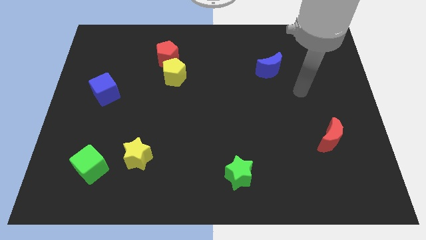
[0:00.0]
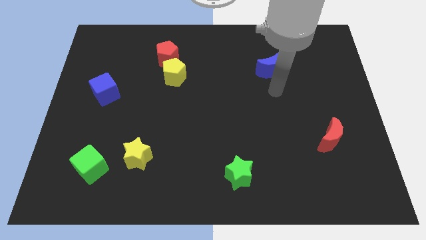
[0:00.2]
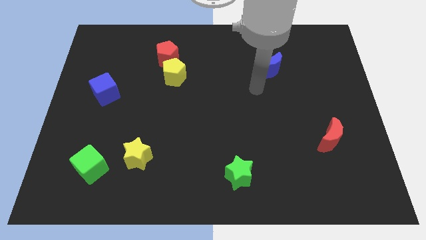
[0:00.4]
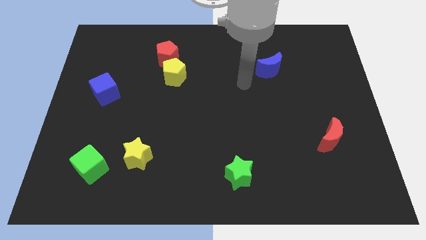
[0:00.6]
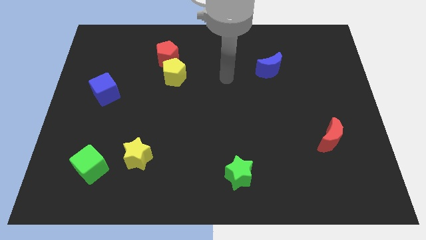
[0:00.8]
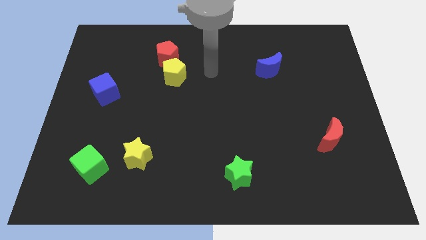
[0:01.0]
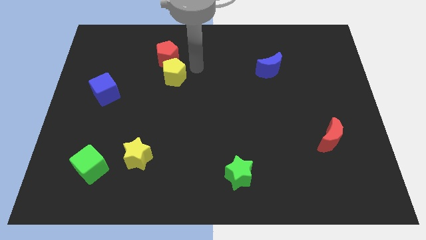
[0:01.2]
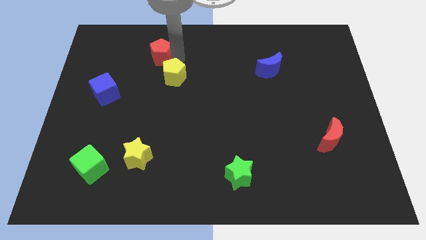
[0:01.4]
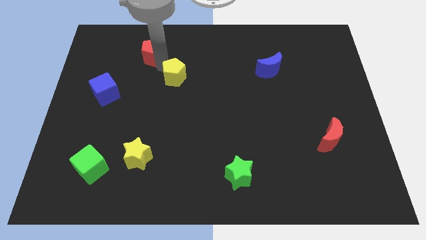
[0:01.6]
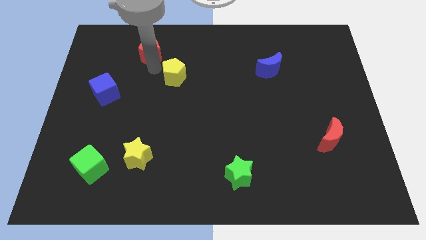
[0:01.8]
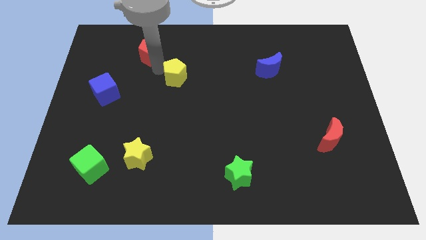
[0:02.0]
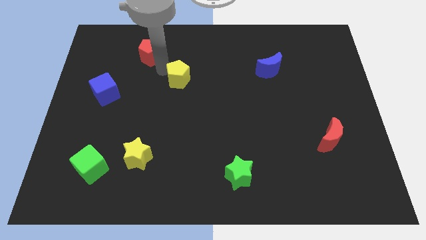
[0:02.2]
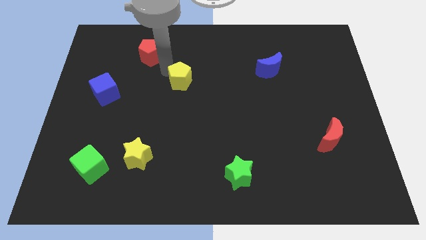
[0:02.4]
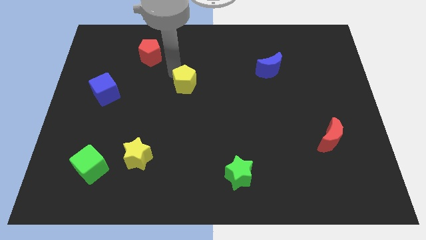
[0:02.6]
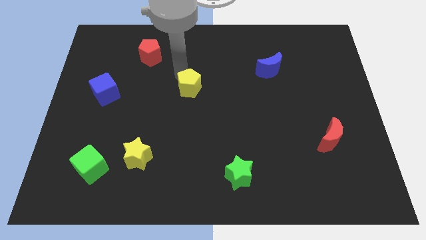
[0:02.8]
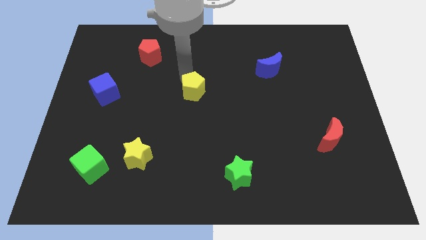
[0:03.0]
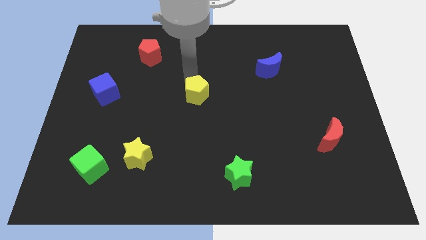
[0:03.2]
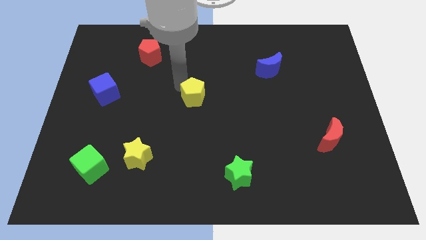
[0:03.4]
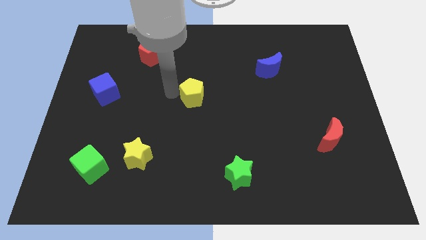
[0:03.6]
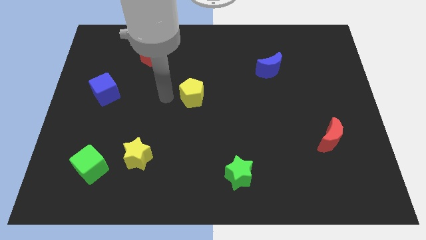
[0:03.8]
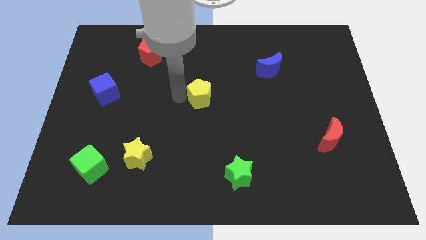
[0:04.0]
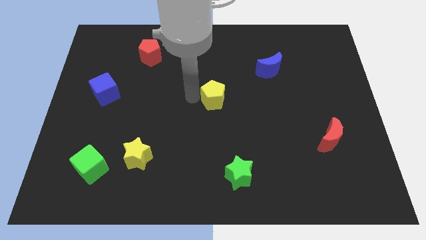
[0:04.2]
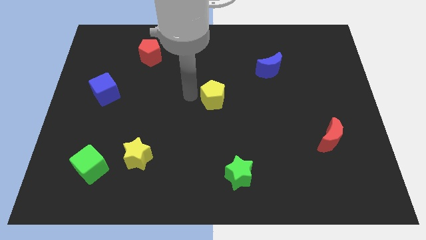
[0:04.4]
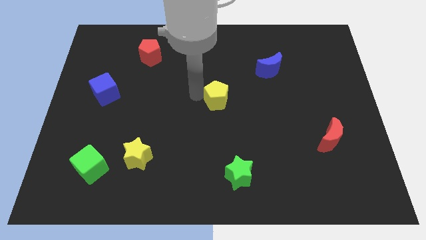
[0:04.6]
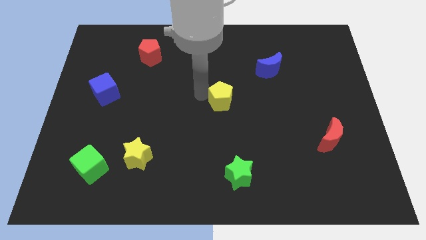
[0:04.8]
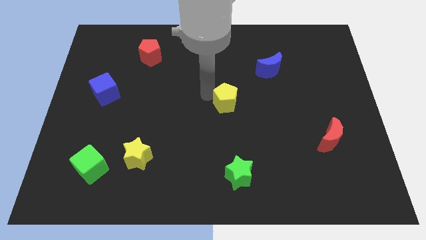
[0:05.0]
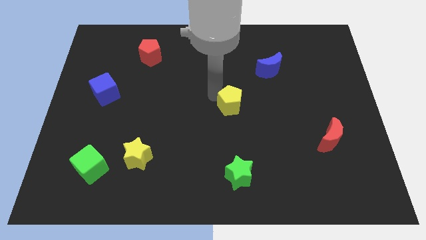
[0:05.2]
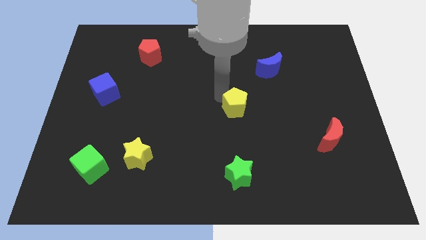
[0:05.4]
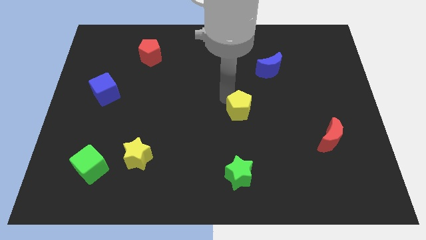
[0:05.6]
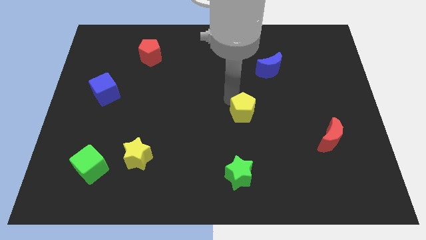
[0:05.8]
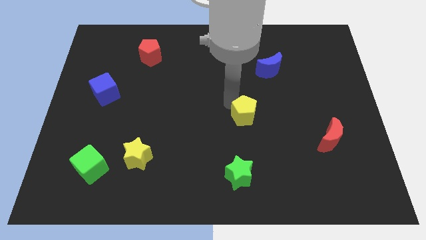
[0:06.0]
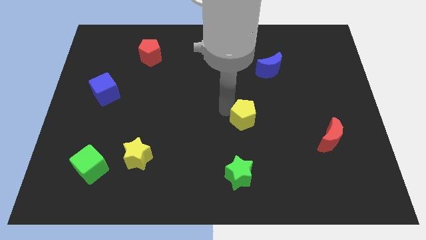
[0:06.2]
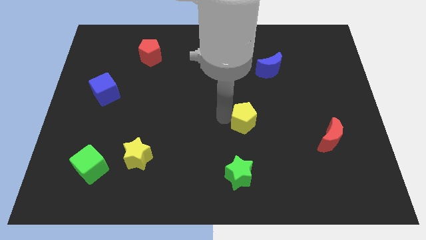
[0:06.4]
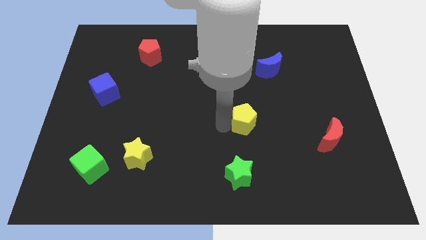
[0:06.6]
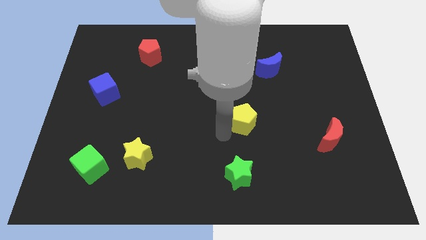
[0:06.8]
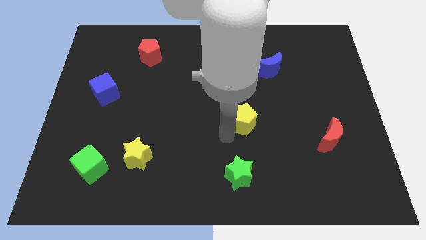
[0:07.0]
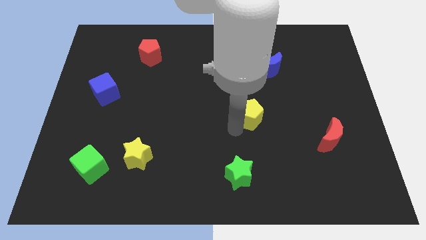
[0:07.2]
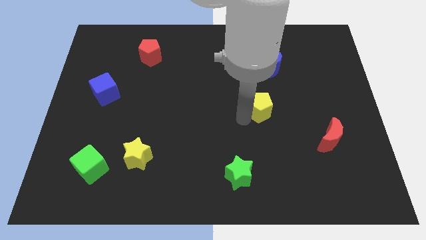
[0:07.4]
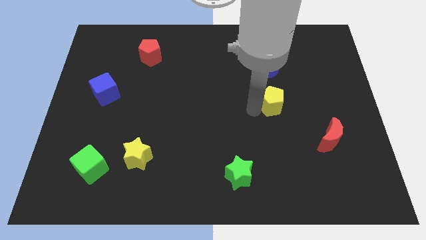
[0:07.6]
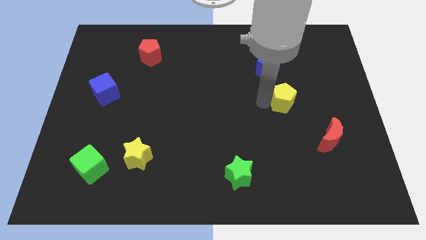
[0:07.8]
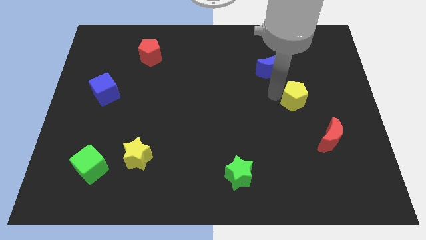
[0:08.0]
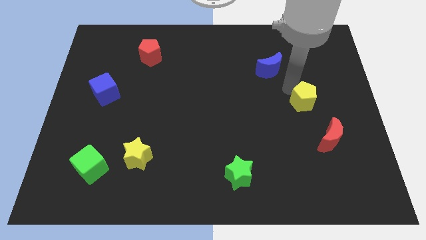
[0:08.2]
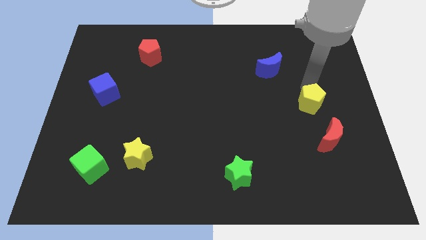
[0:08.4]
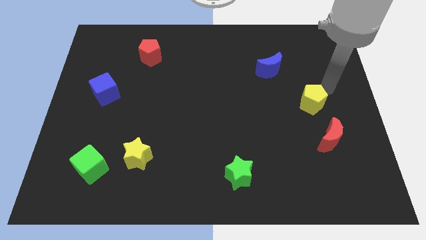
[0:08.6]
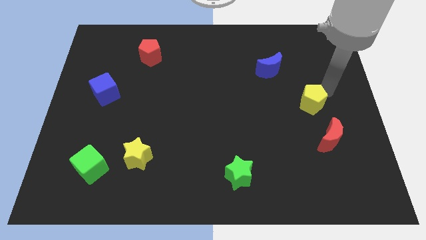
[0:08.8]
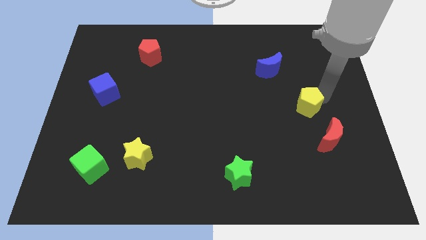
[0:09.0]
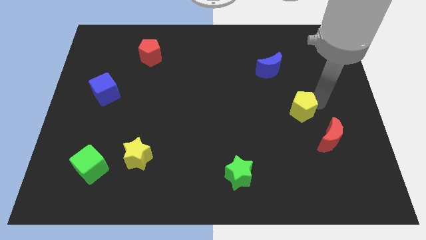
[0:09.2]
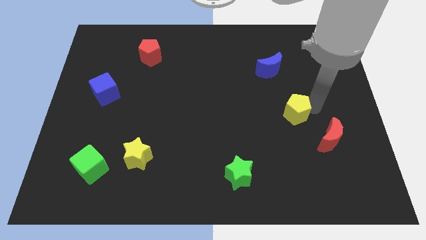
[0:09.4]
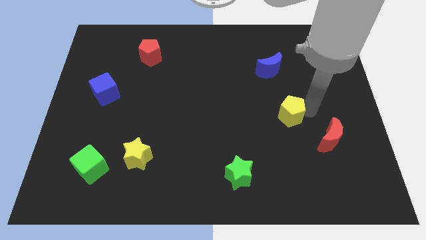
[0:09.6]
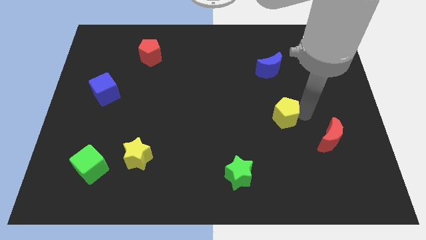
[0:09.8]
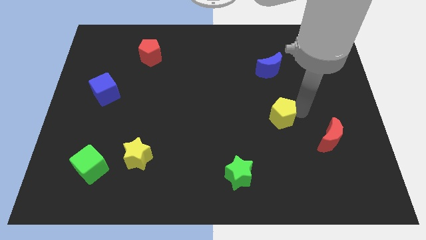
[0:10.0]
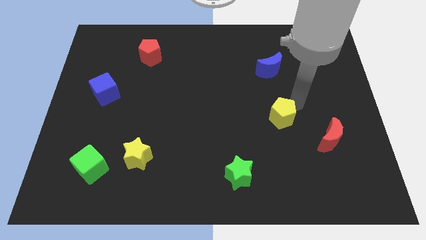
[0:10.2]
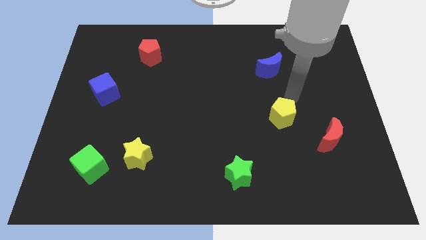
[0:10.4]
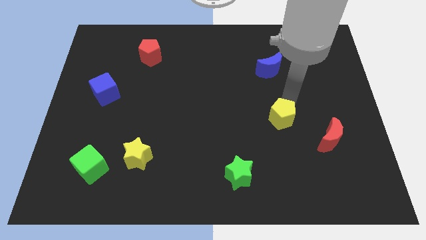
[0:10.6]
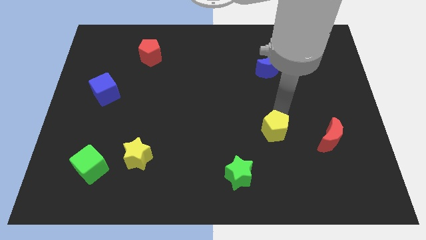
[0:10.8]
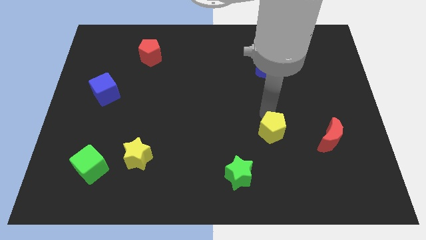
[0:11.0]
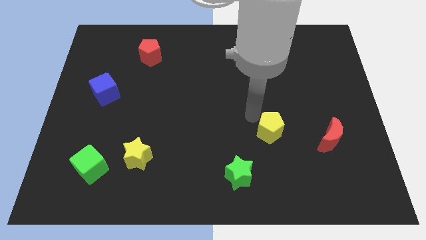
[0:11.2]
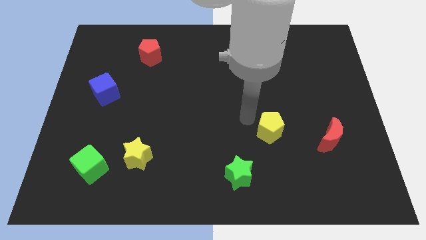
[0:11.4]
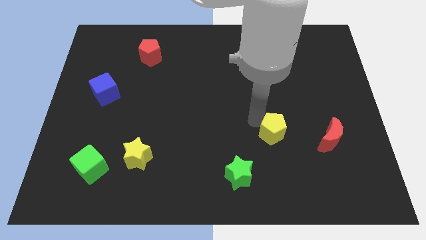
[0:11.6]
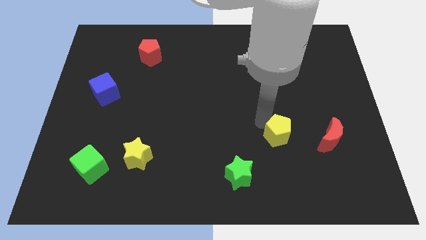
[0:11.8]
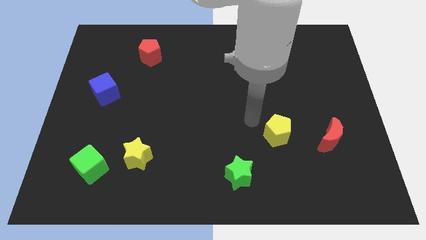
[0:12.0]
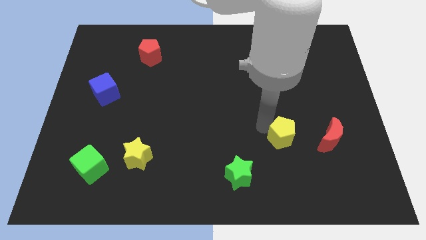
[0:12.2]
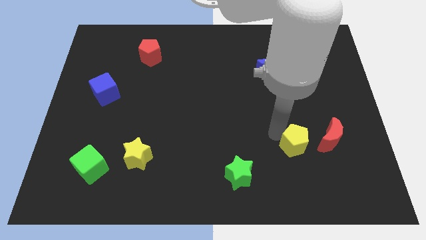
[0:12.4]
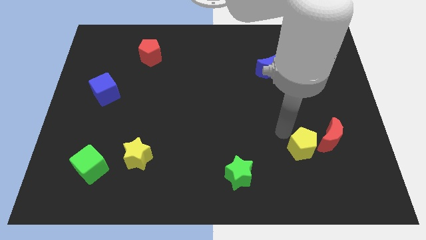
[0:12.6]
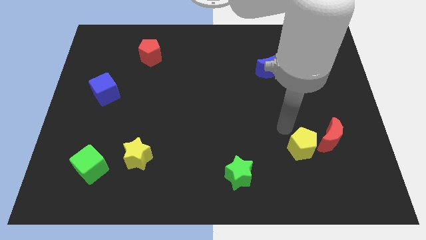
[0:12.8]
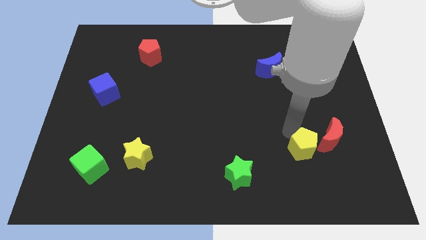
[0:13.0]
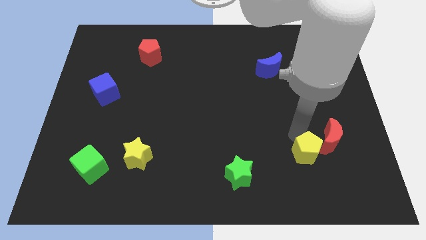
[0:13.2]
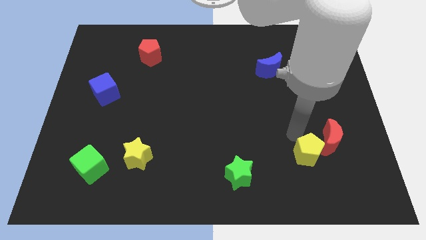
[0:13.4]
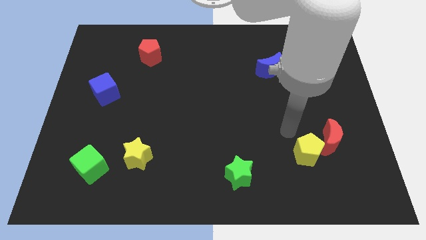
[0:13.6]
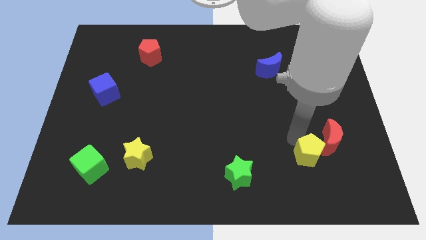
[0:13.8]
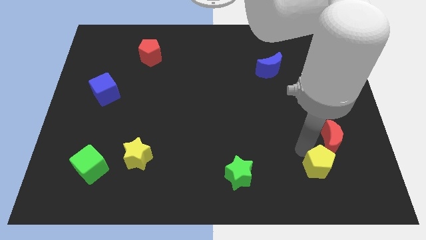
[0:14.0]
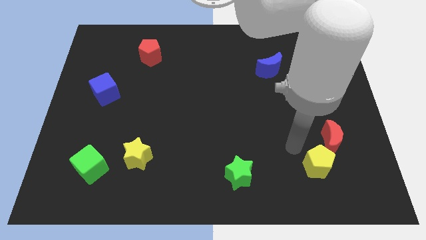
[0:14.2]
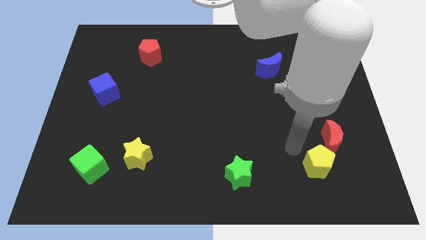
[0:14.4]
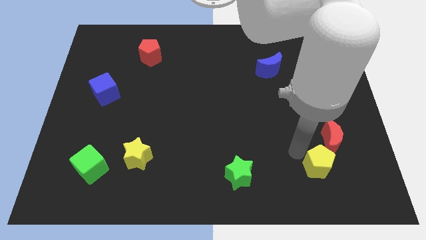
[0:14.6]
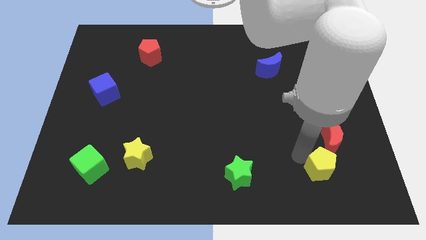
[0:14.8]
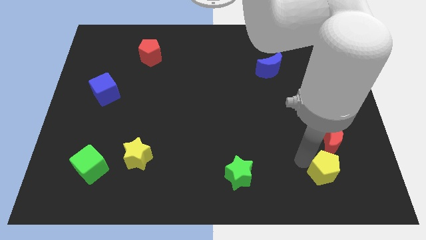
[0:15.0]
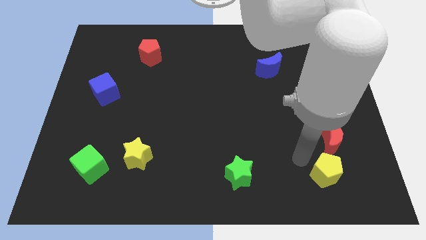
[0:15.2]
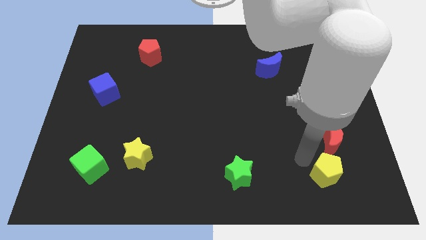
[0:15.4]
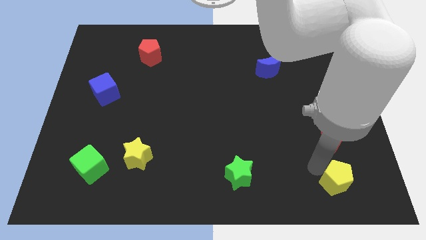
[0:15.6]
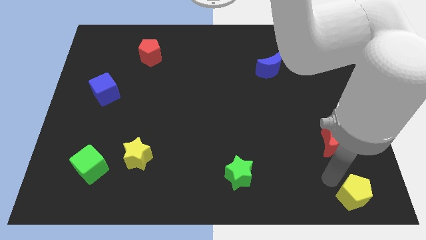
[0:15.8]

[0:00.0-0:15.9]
slide the yellow pentagon to the bottom right

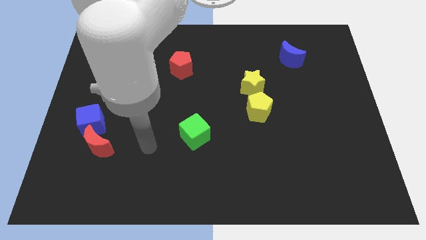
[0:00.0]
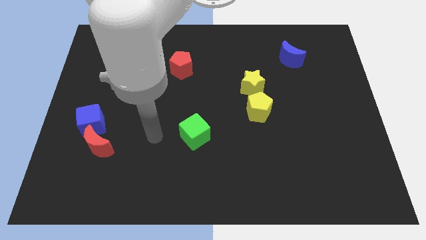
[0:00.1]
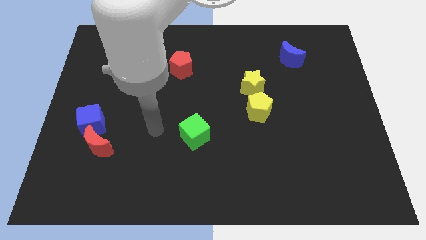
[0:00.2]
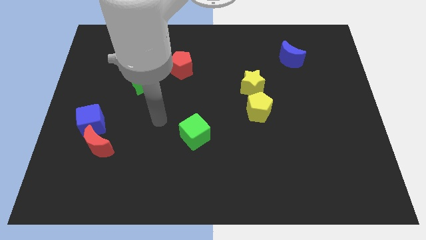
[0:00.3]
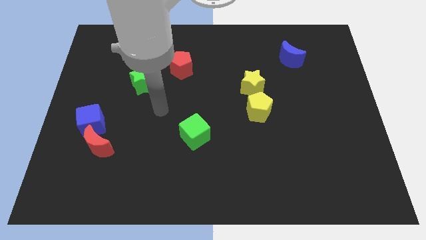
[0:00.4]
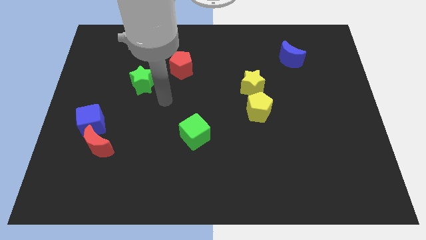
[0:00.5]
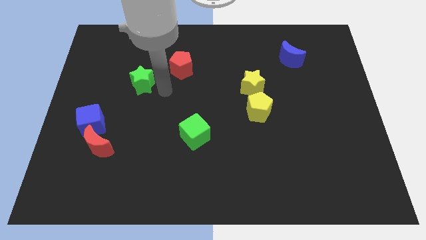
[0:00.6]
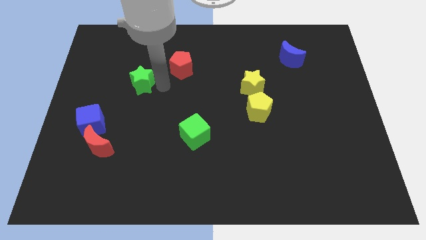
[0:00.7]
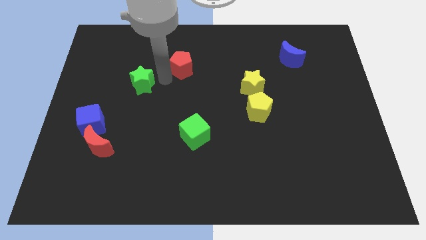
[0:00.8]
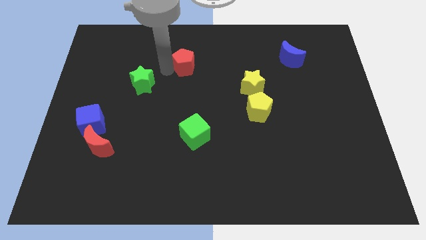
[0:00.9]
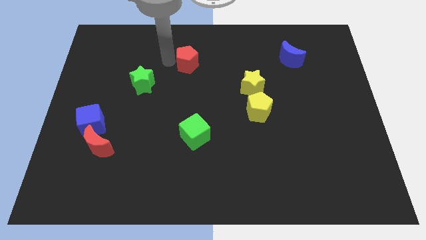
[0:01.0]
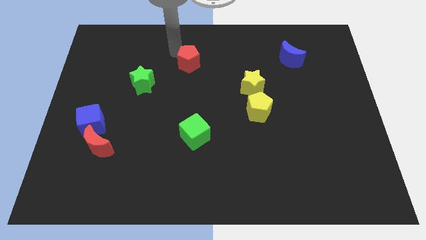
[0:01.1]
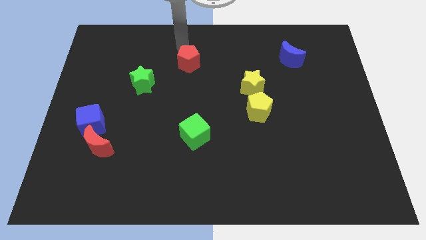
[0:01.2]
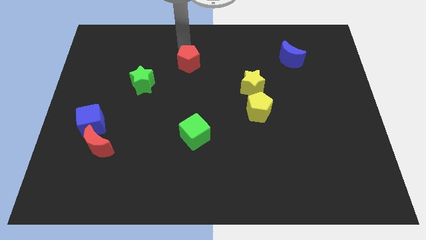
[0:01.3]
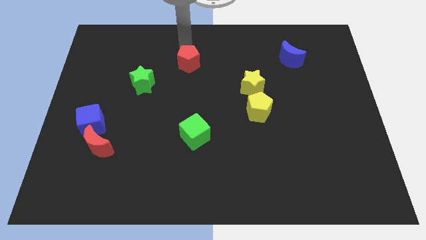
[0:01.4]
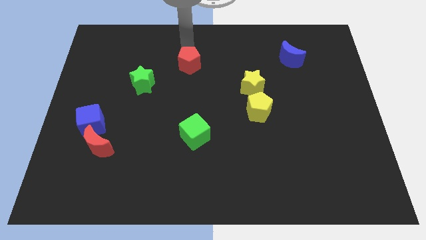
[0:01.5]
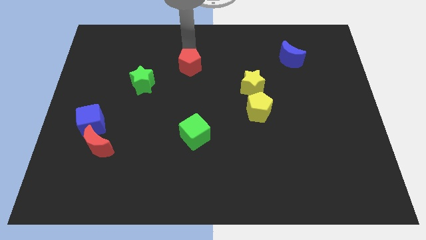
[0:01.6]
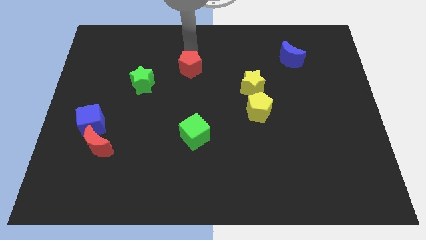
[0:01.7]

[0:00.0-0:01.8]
push the red pentagon to the center of the board
